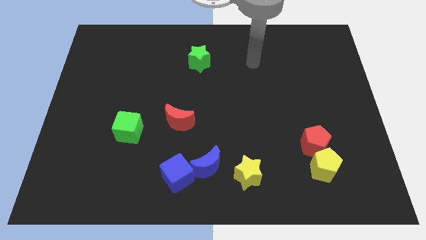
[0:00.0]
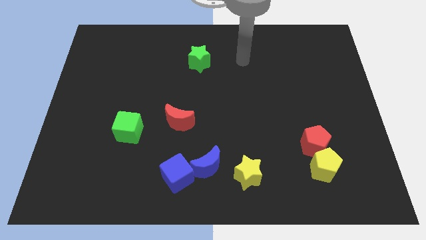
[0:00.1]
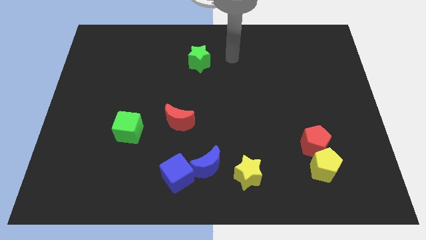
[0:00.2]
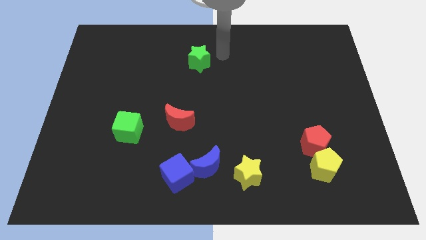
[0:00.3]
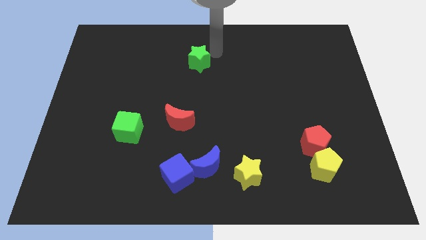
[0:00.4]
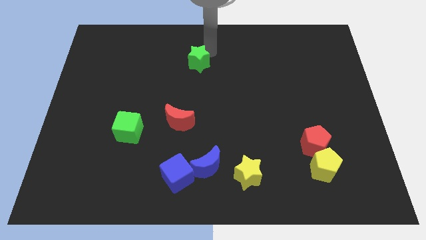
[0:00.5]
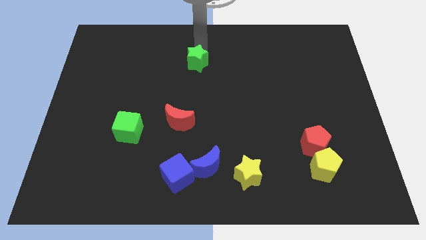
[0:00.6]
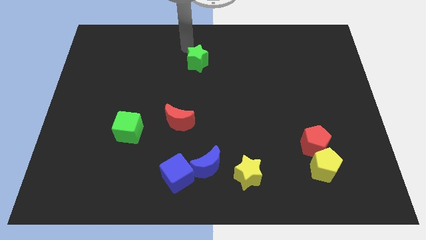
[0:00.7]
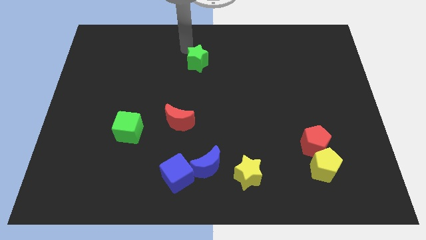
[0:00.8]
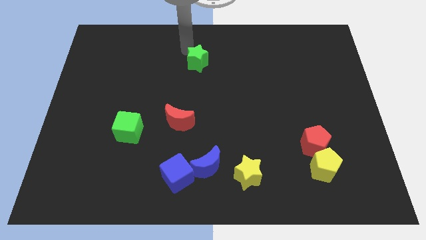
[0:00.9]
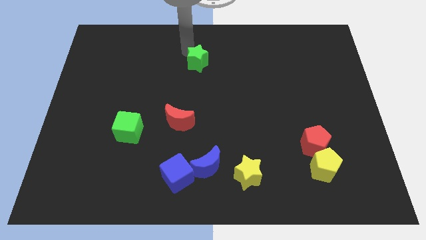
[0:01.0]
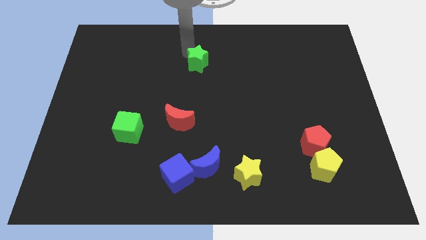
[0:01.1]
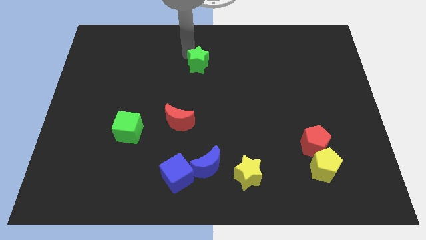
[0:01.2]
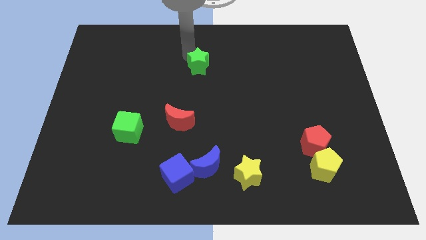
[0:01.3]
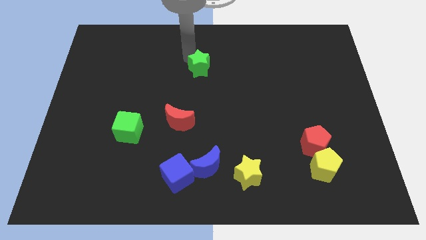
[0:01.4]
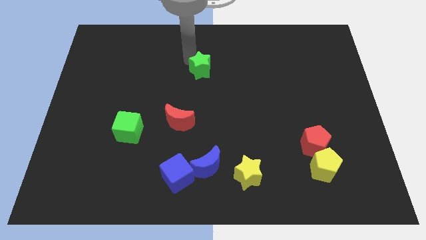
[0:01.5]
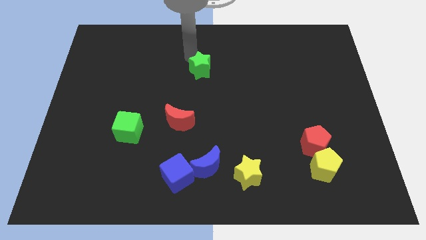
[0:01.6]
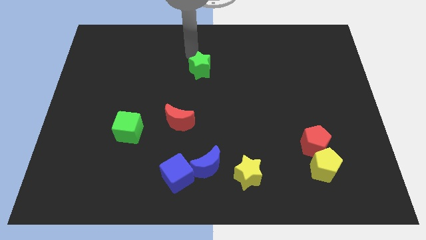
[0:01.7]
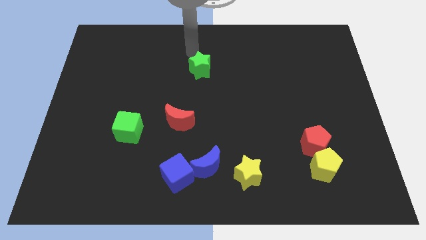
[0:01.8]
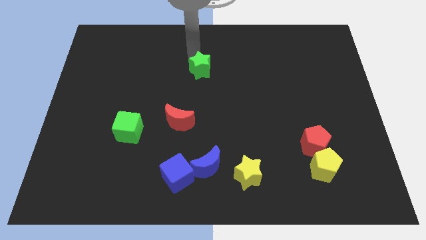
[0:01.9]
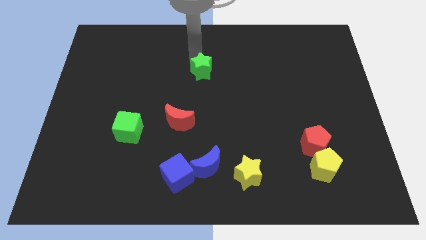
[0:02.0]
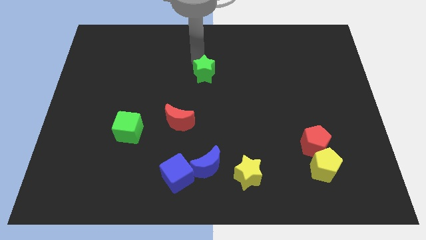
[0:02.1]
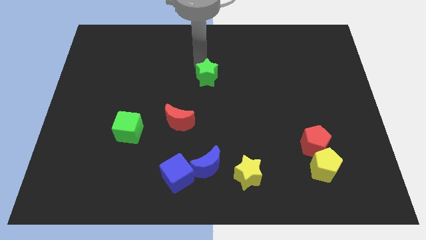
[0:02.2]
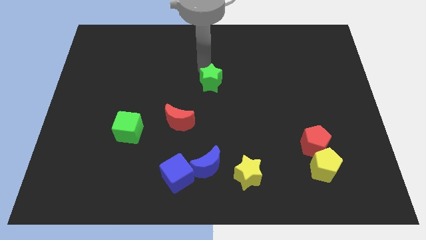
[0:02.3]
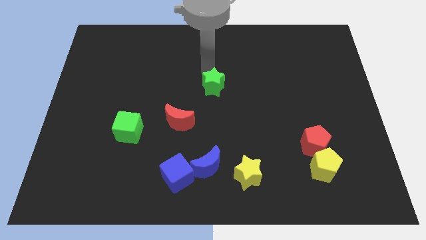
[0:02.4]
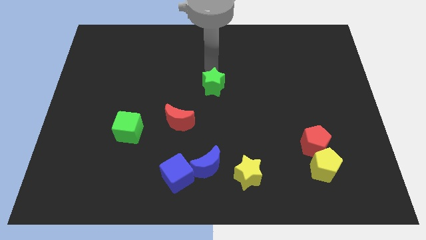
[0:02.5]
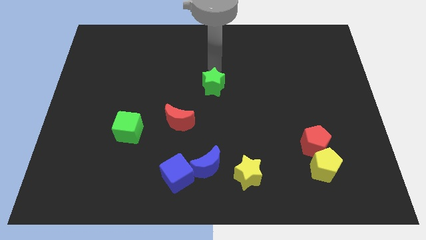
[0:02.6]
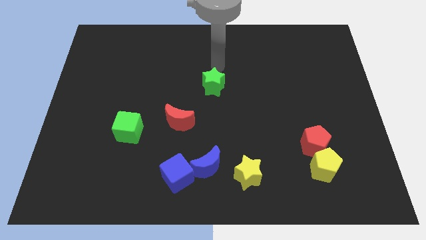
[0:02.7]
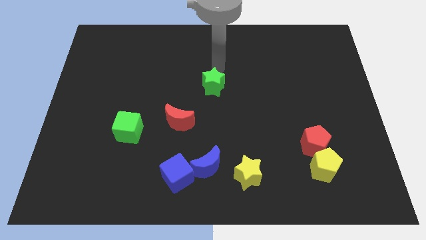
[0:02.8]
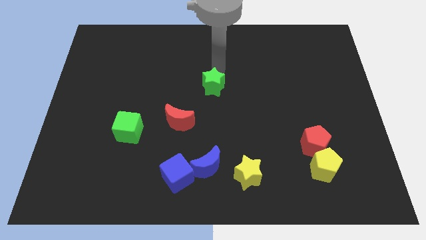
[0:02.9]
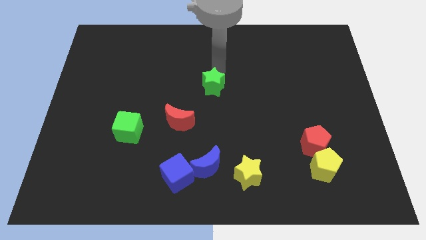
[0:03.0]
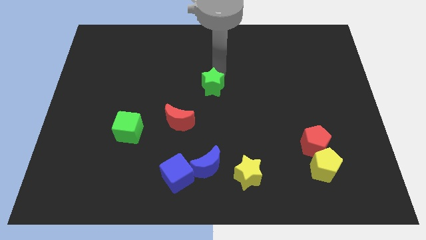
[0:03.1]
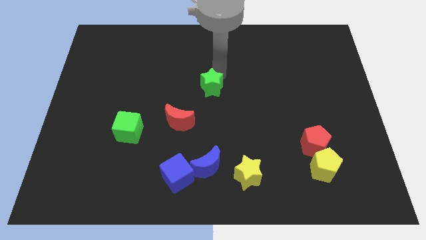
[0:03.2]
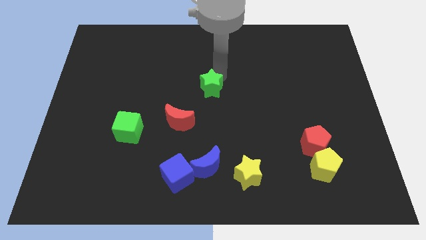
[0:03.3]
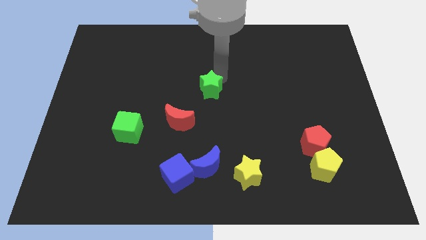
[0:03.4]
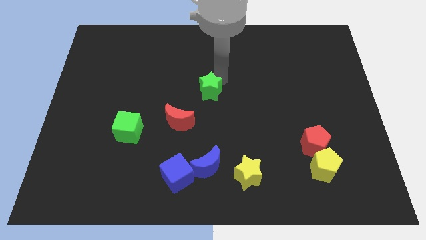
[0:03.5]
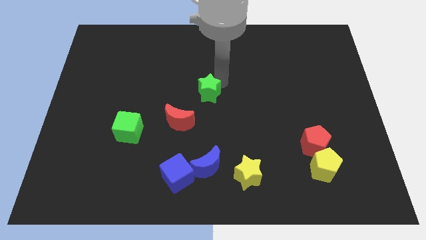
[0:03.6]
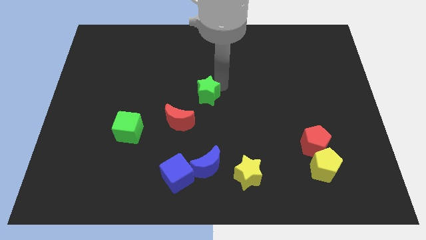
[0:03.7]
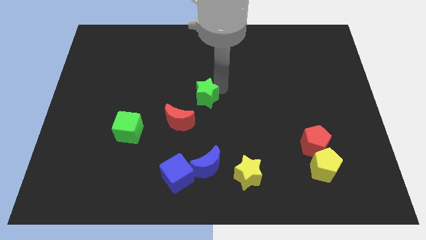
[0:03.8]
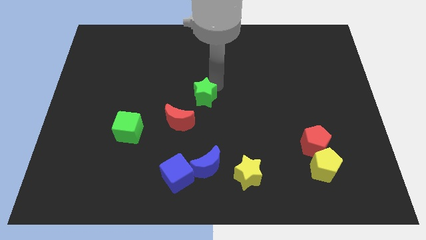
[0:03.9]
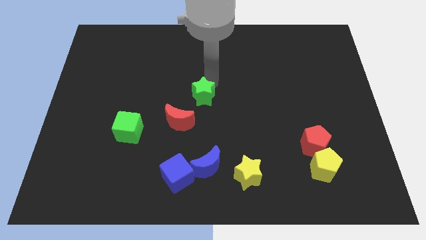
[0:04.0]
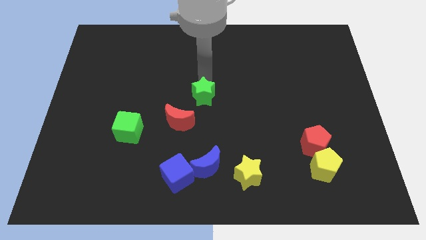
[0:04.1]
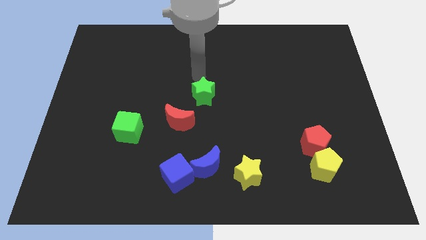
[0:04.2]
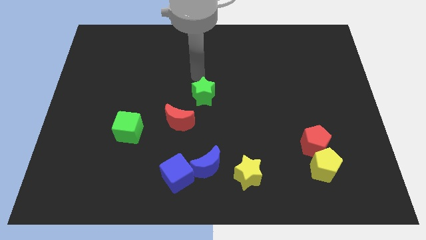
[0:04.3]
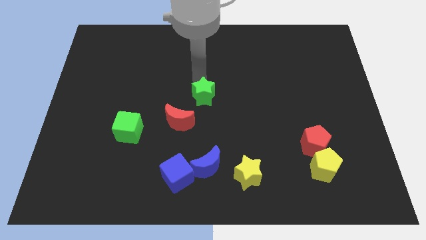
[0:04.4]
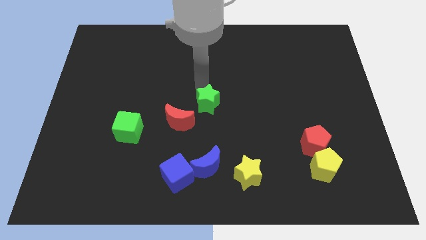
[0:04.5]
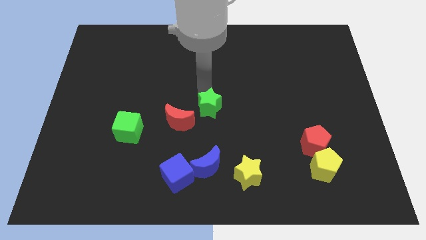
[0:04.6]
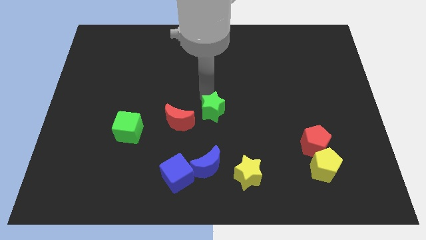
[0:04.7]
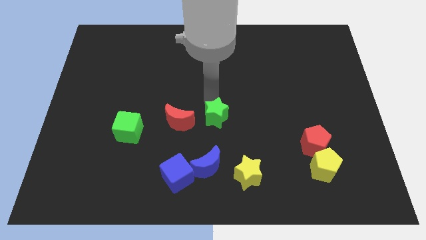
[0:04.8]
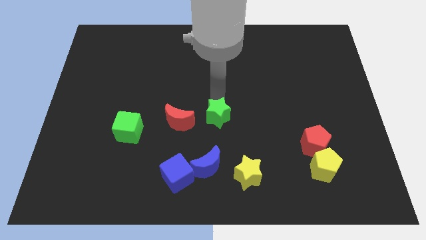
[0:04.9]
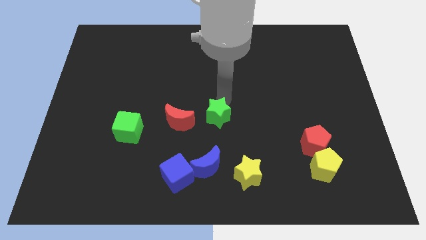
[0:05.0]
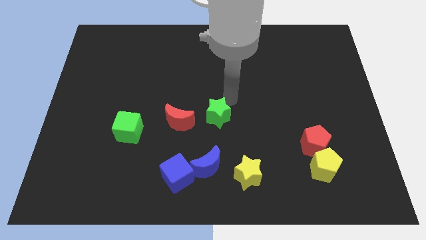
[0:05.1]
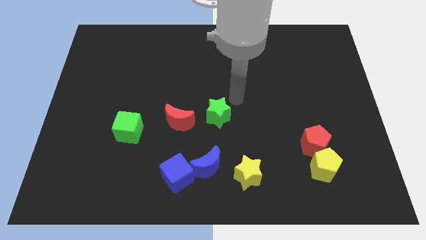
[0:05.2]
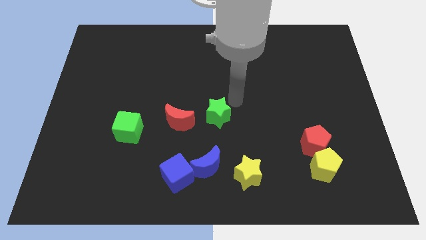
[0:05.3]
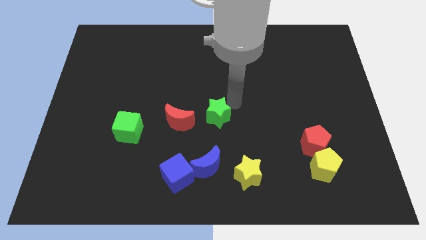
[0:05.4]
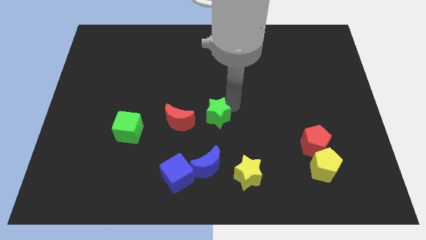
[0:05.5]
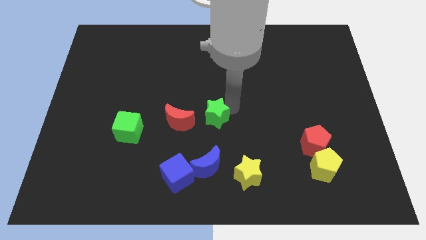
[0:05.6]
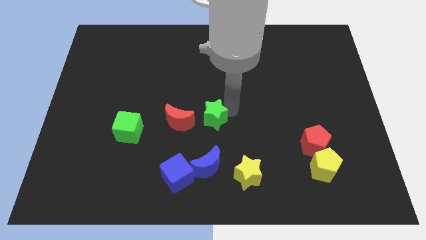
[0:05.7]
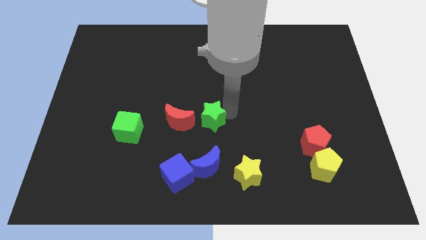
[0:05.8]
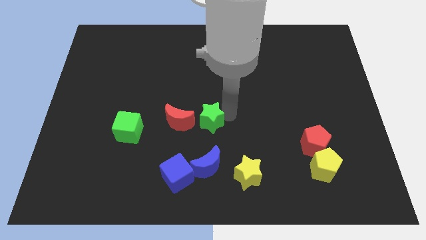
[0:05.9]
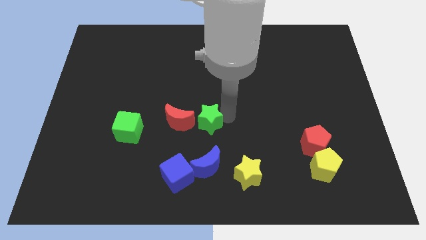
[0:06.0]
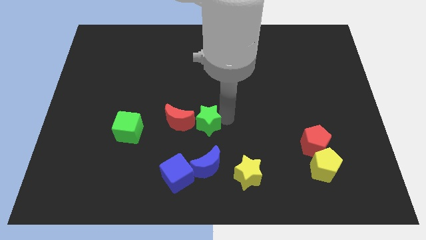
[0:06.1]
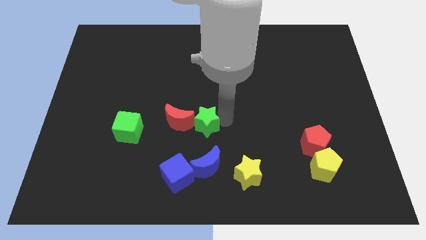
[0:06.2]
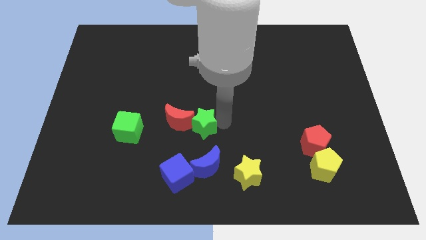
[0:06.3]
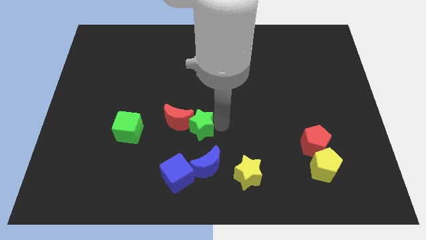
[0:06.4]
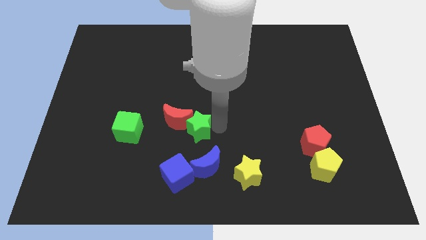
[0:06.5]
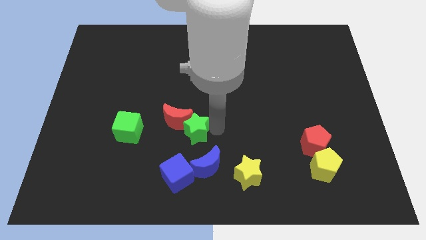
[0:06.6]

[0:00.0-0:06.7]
push the green star to the top left of the blue moon
